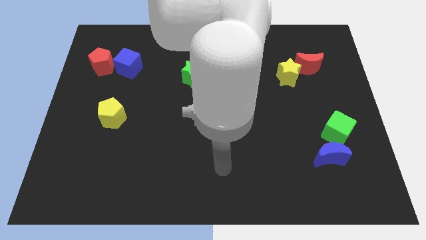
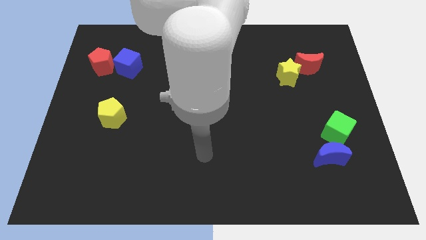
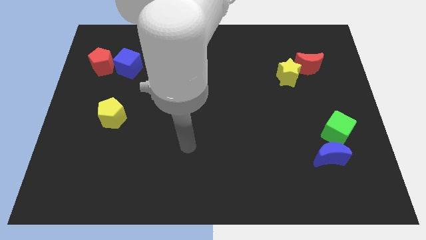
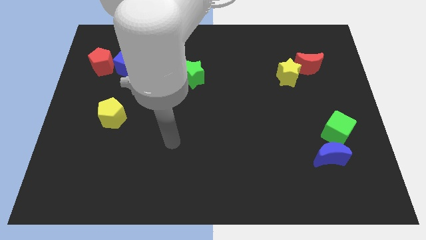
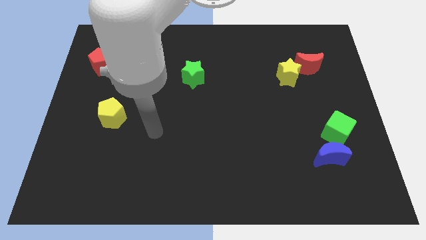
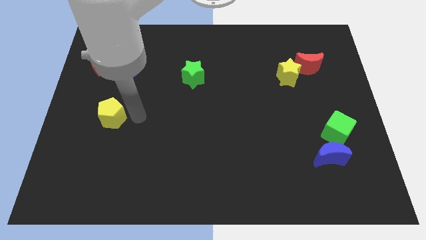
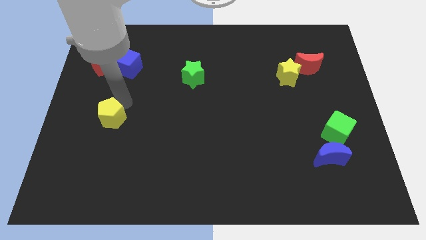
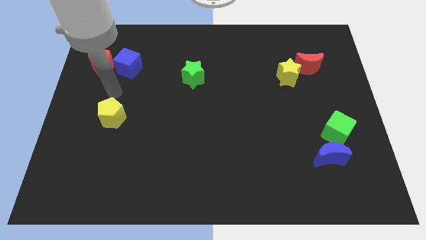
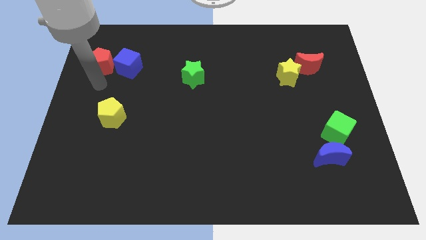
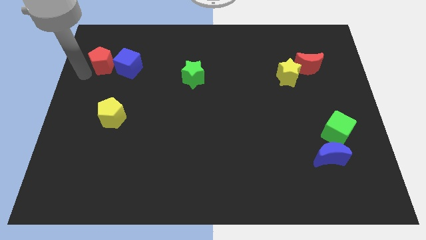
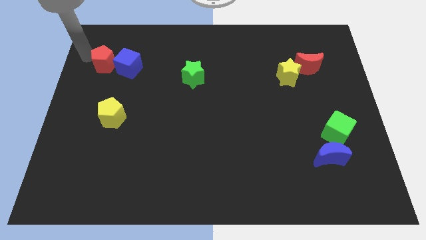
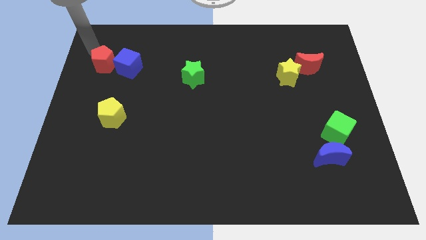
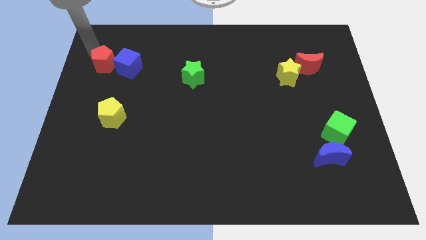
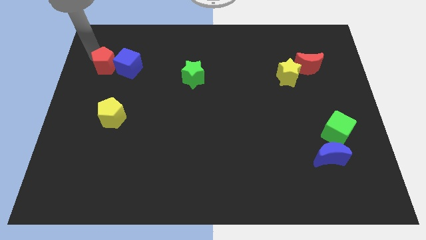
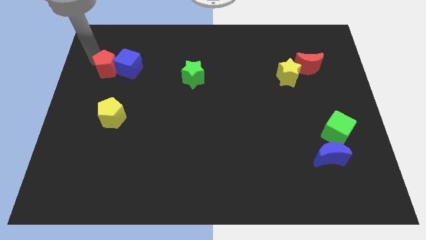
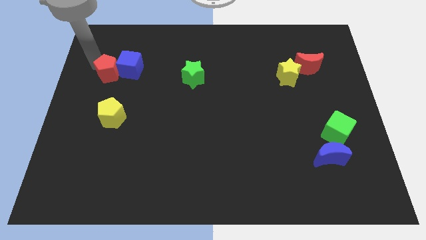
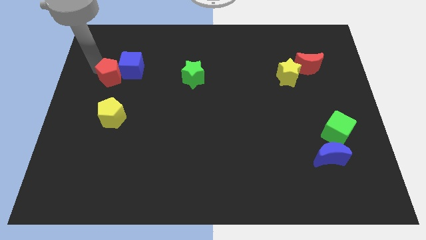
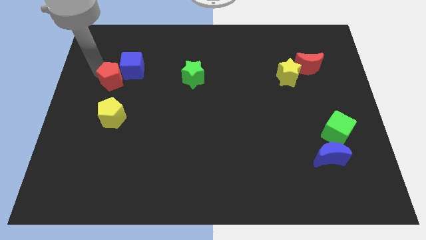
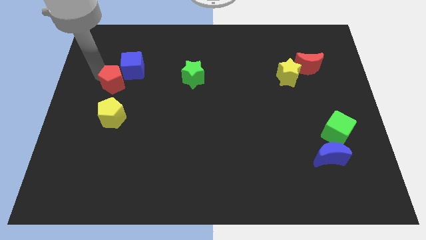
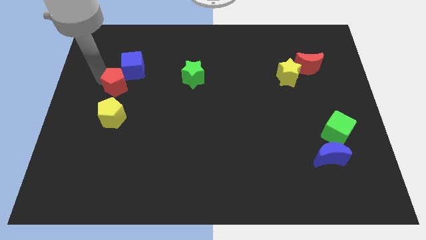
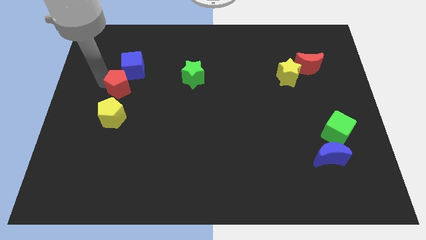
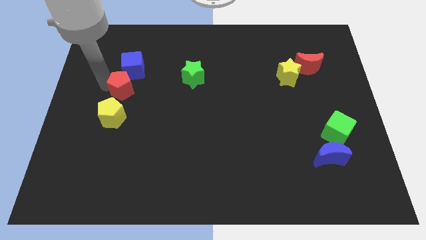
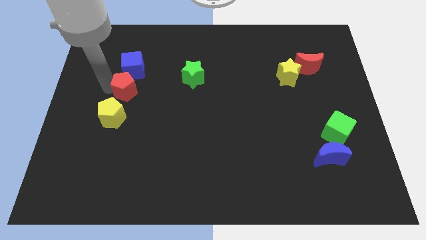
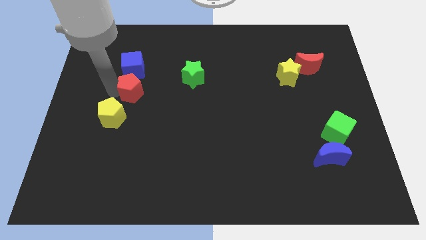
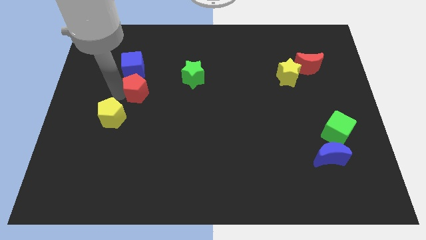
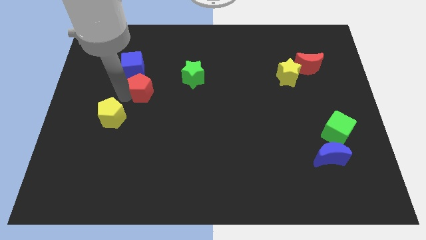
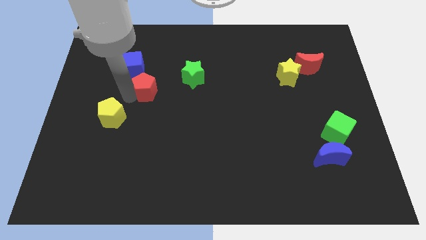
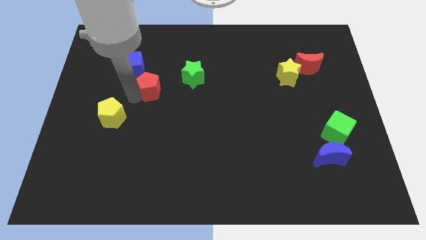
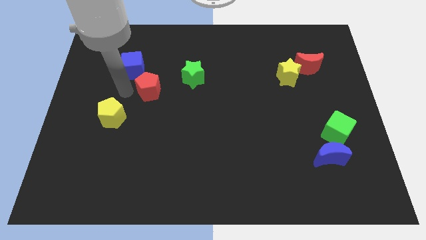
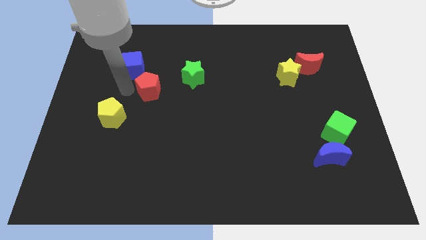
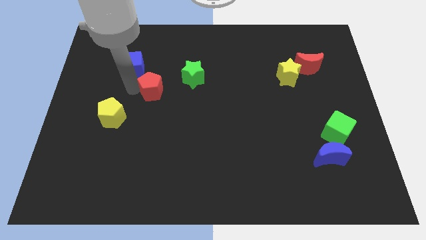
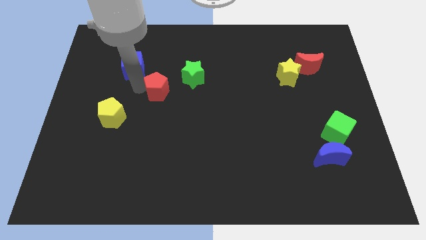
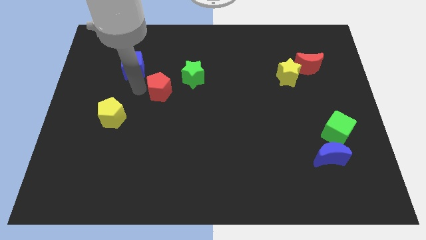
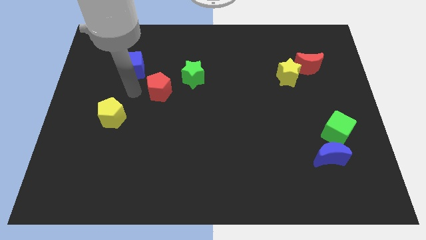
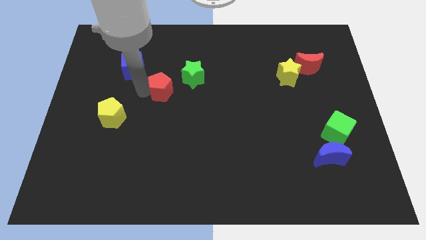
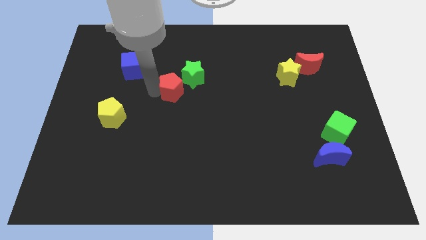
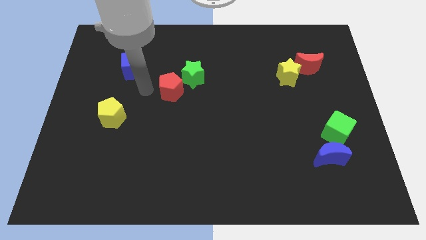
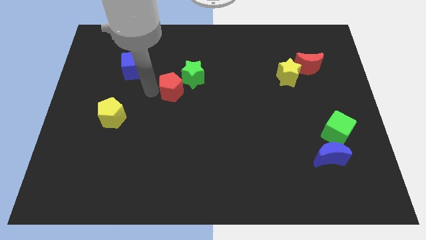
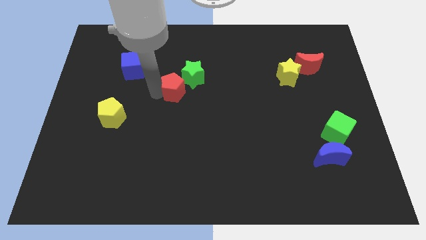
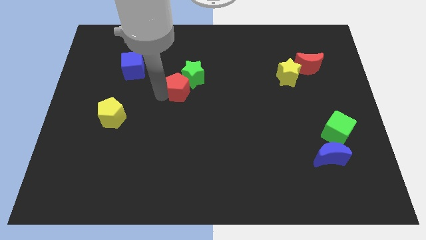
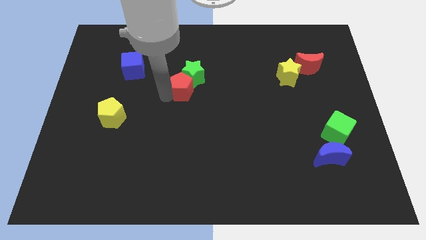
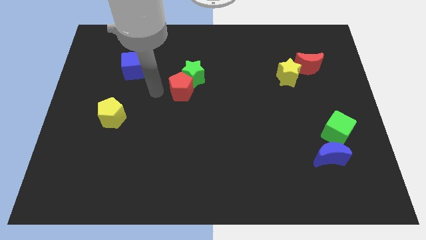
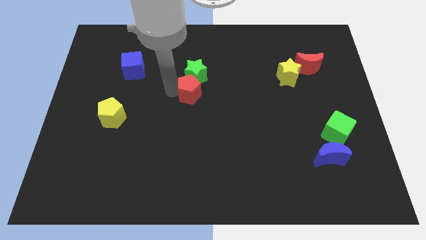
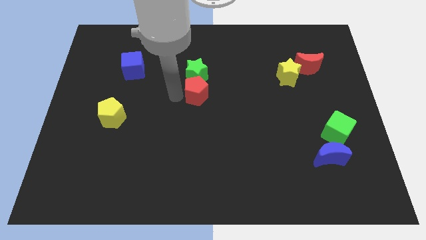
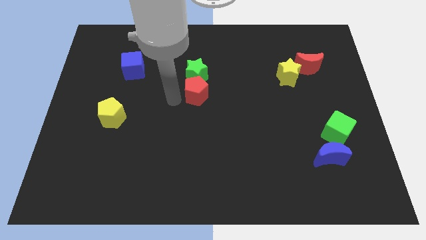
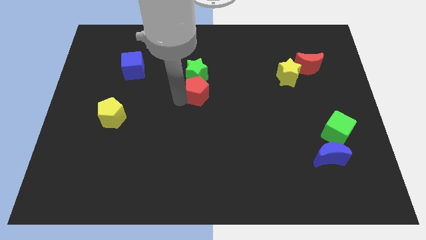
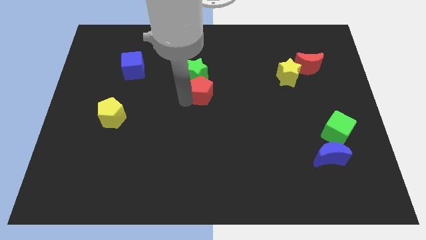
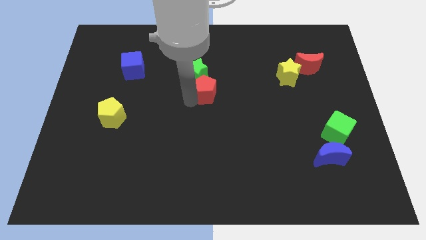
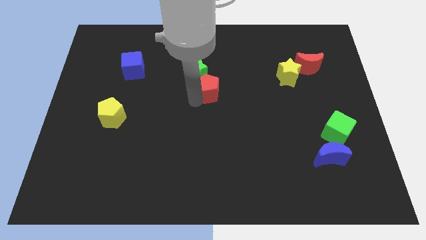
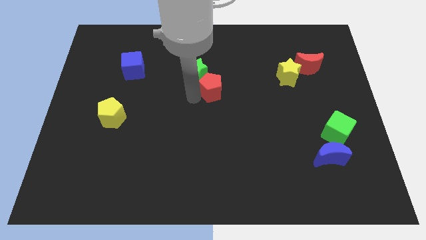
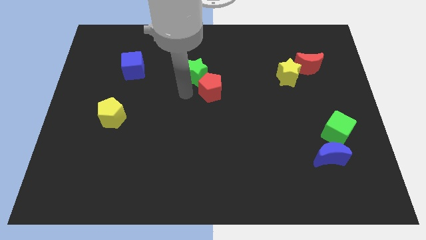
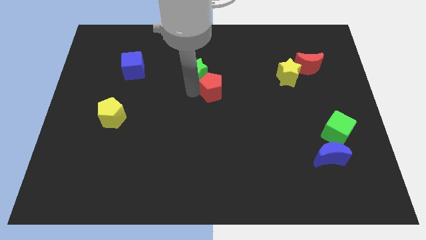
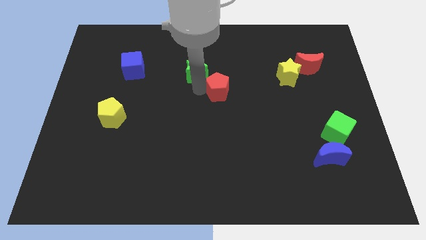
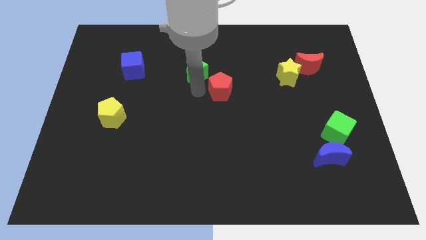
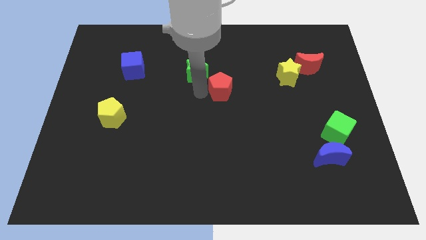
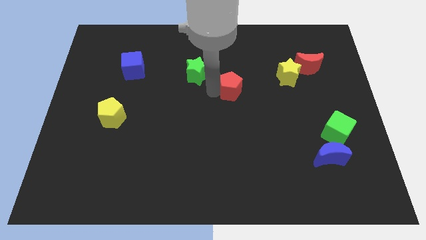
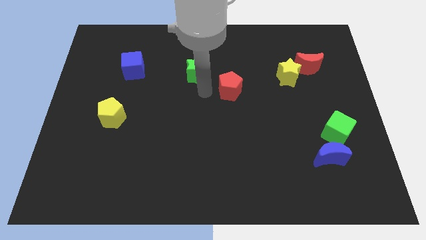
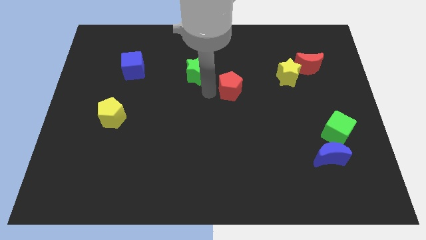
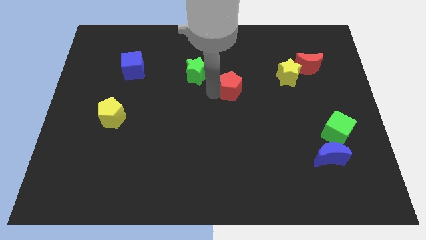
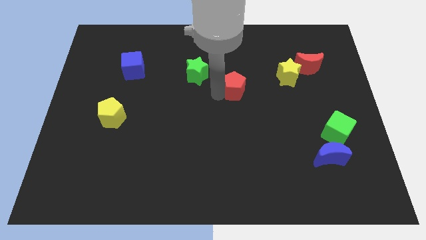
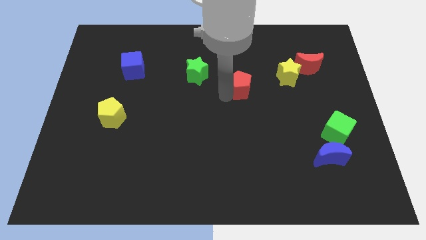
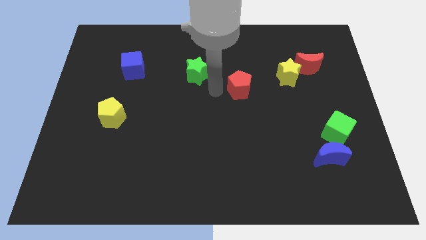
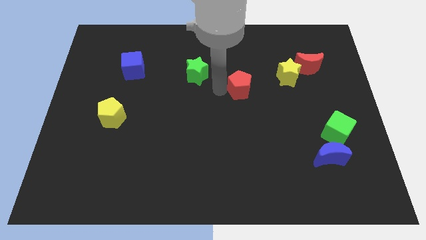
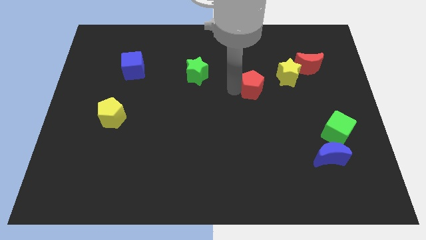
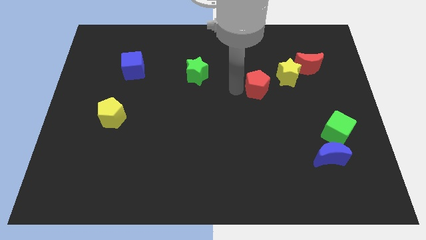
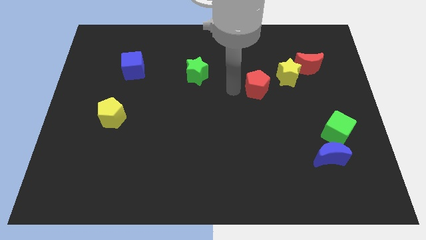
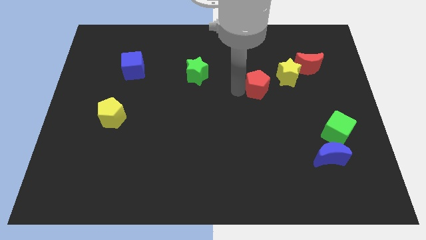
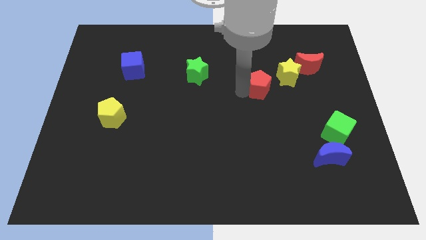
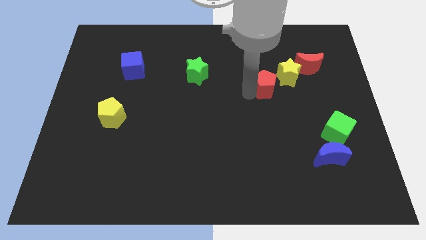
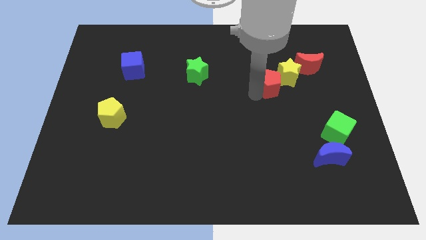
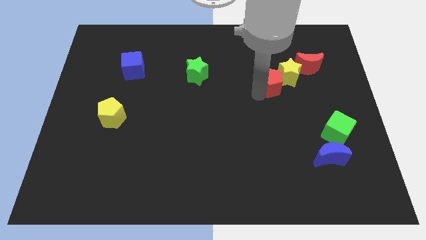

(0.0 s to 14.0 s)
put the red pentagon to the bottom left side of the red moon

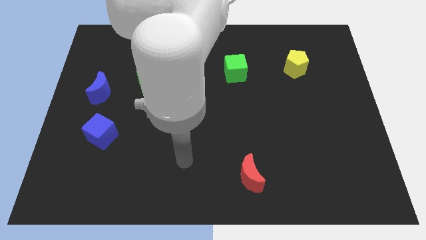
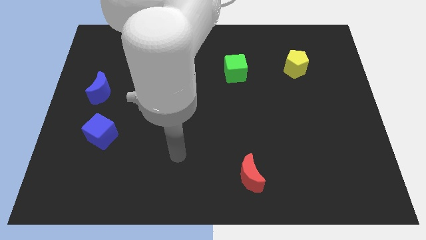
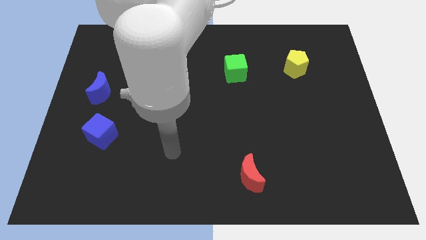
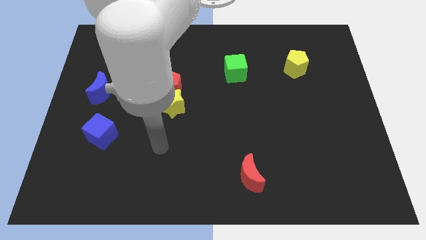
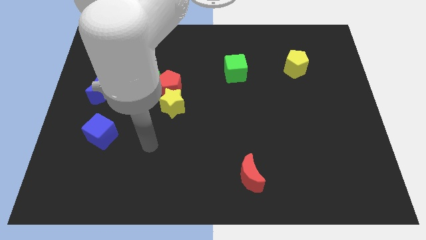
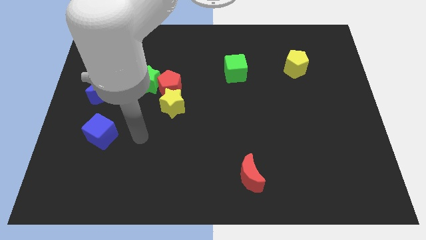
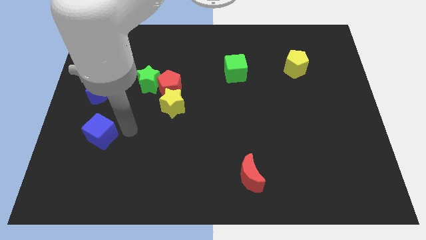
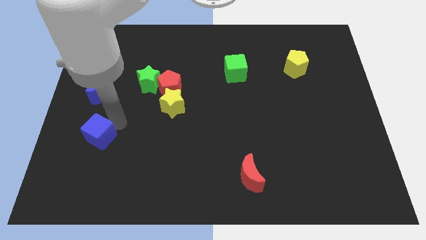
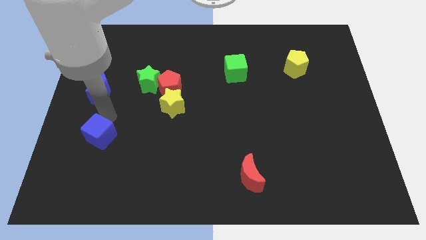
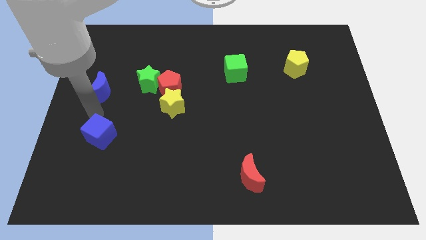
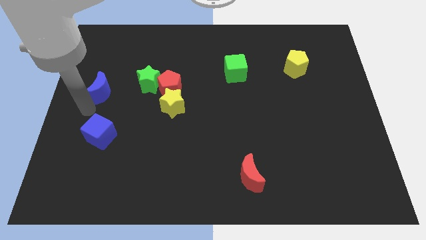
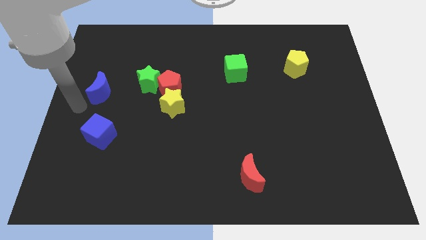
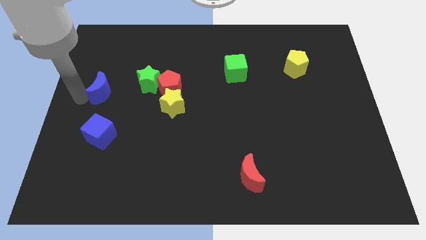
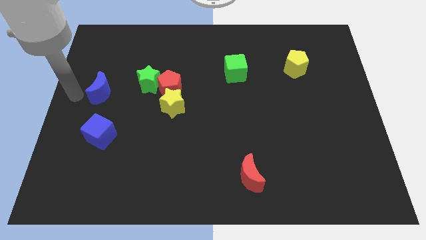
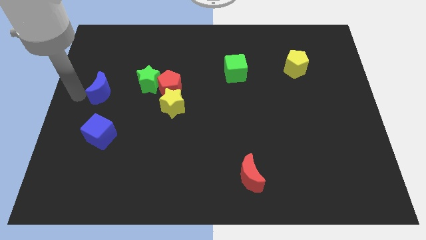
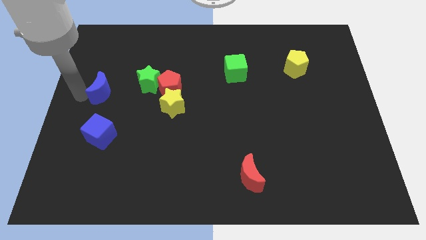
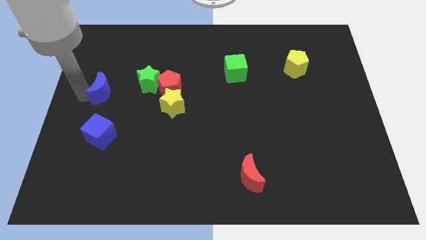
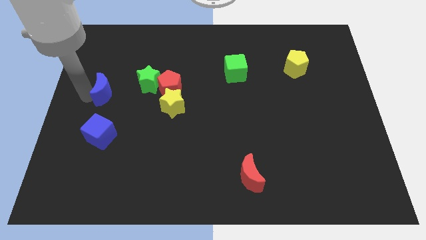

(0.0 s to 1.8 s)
put the blue moon left of the red pentagon
